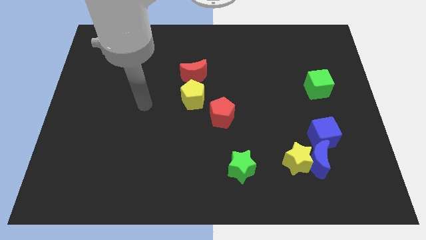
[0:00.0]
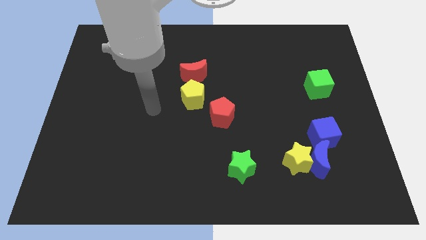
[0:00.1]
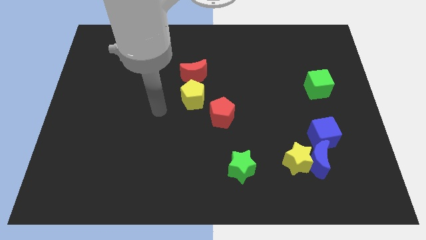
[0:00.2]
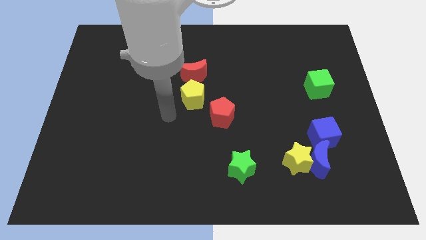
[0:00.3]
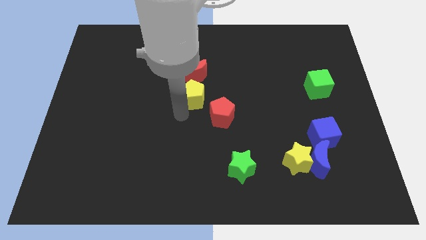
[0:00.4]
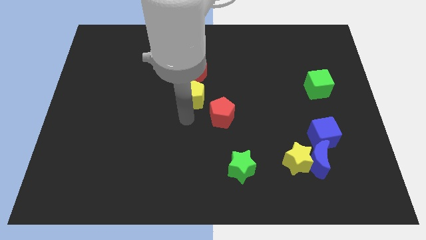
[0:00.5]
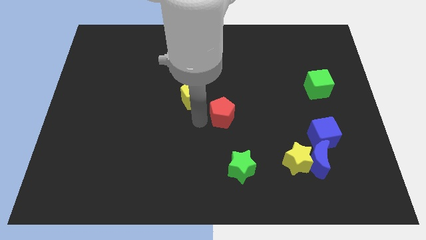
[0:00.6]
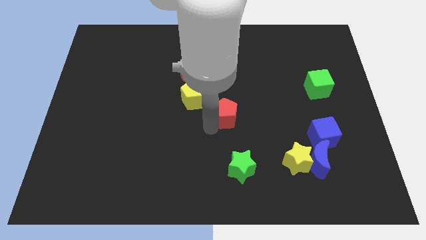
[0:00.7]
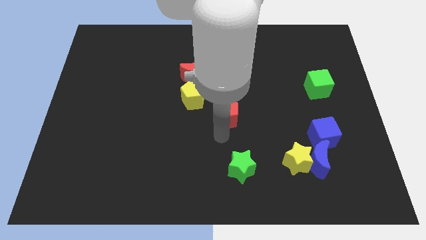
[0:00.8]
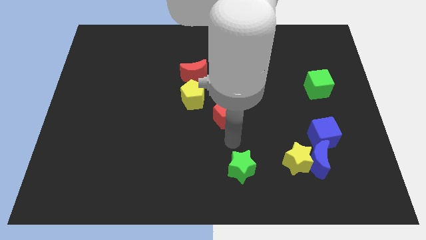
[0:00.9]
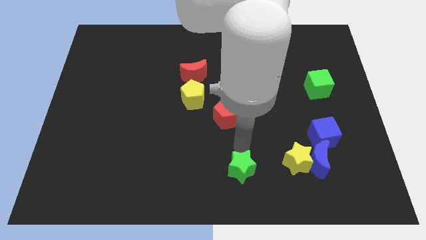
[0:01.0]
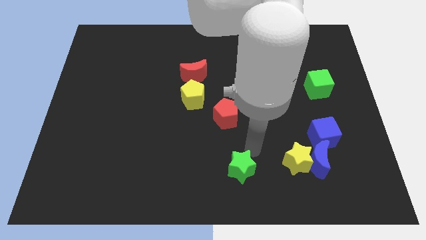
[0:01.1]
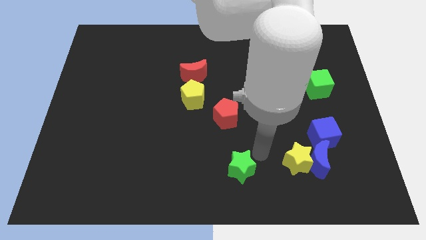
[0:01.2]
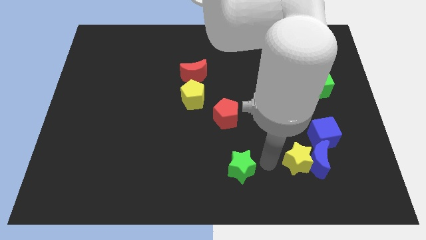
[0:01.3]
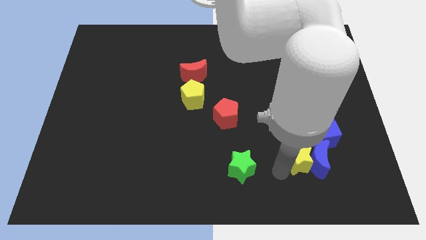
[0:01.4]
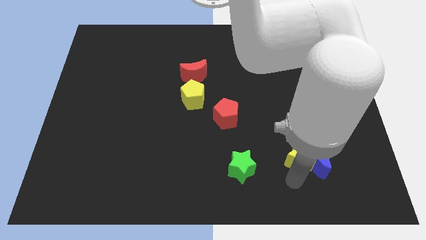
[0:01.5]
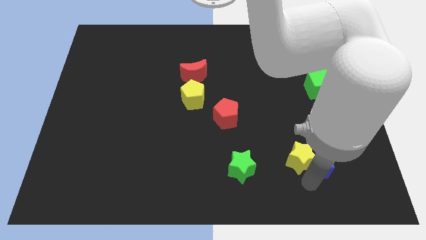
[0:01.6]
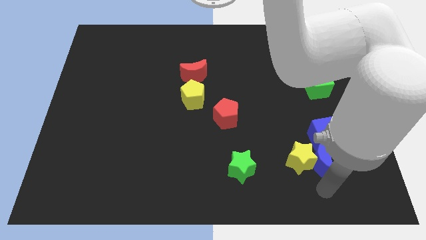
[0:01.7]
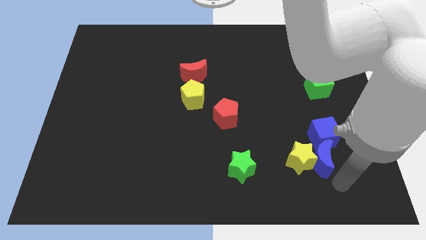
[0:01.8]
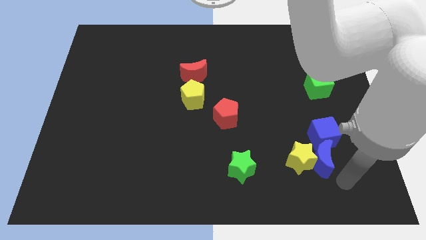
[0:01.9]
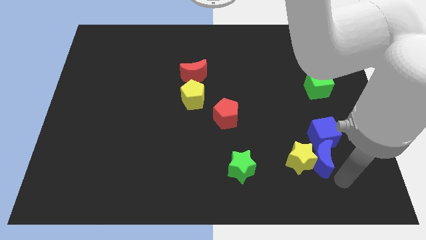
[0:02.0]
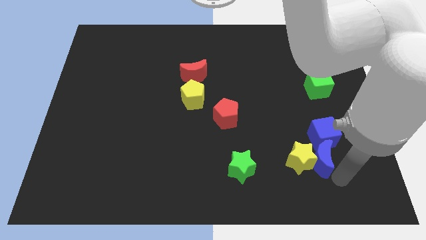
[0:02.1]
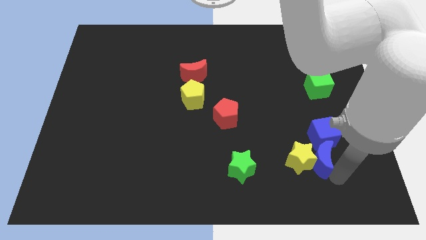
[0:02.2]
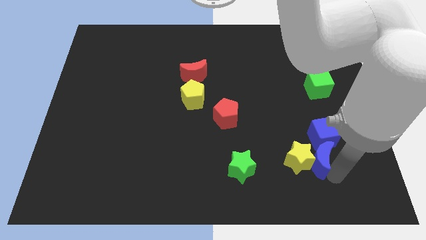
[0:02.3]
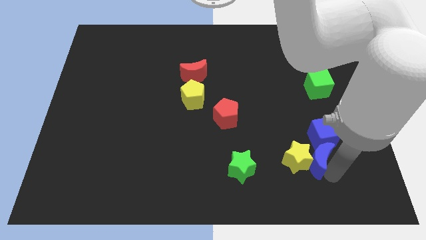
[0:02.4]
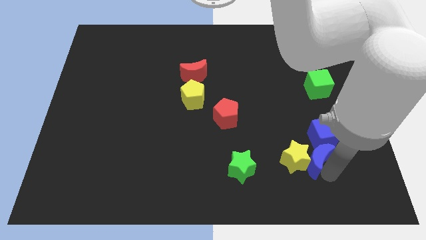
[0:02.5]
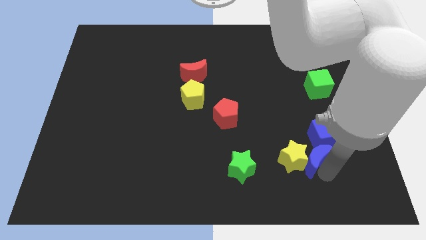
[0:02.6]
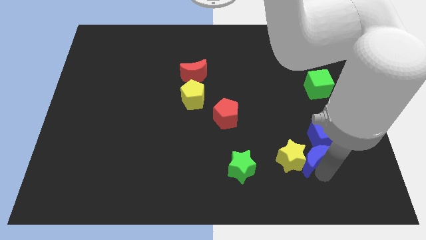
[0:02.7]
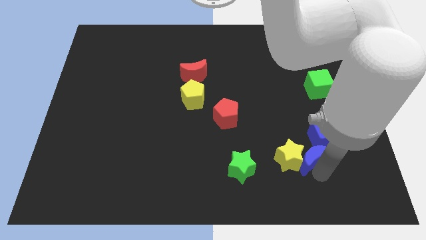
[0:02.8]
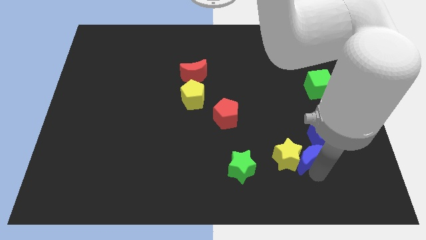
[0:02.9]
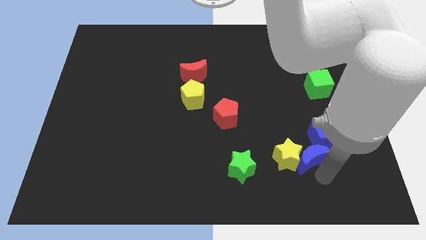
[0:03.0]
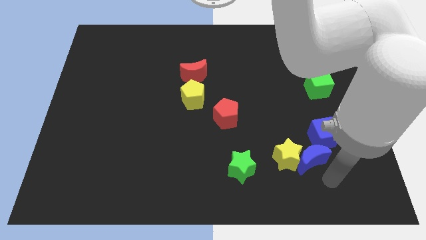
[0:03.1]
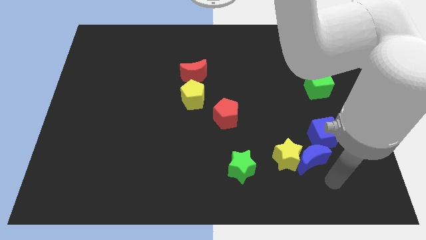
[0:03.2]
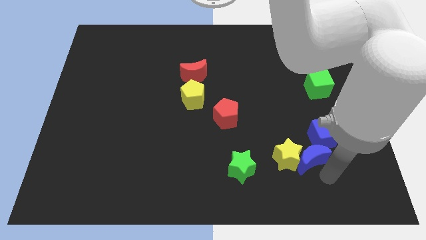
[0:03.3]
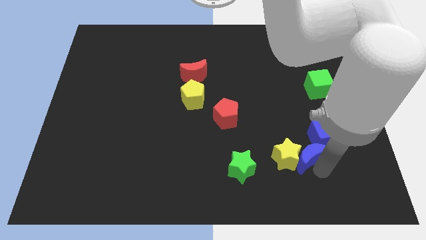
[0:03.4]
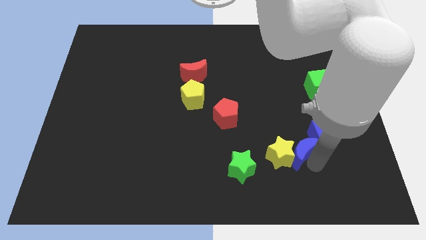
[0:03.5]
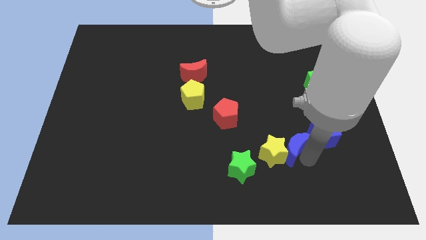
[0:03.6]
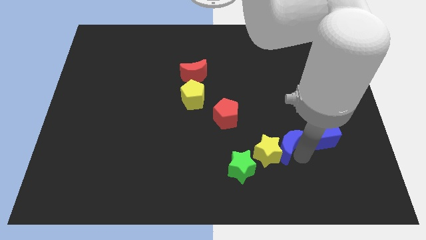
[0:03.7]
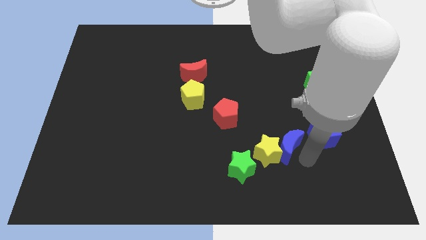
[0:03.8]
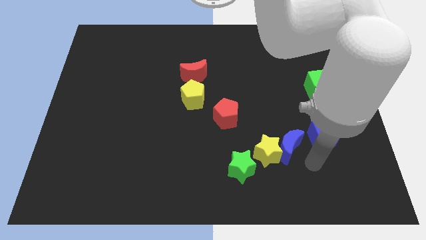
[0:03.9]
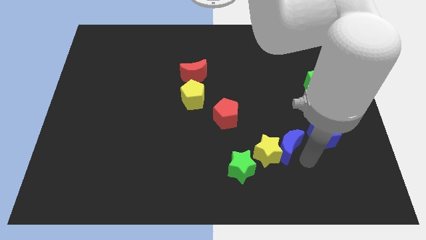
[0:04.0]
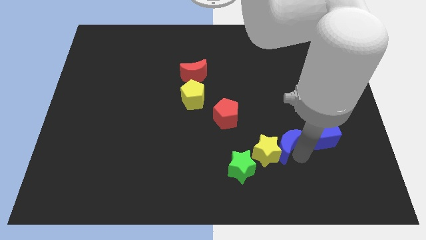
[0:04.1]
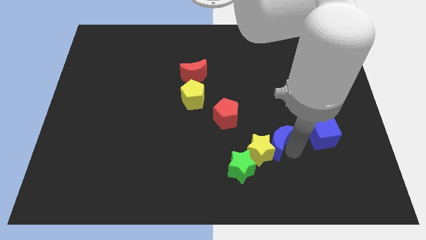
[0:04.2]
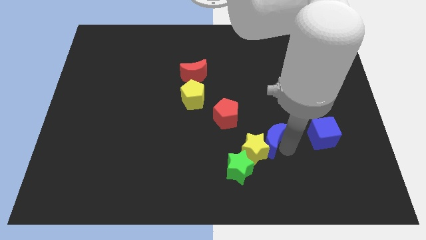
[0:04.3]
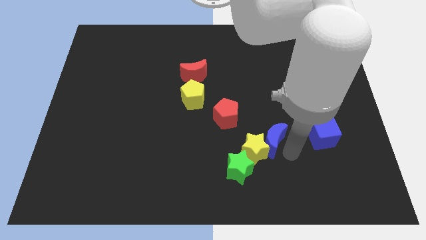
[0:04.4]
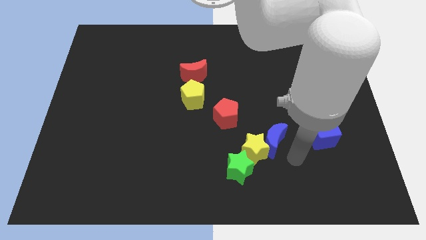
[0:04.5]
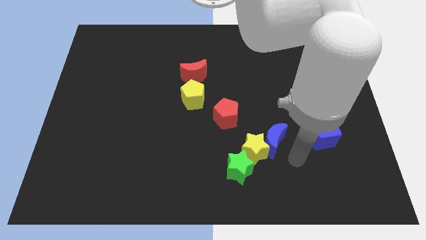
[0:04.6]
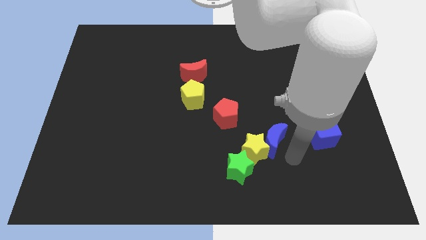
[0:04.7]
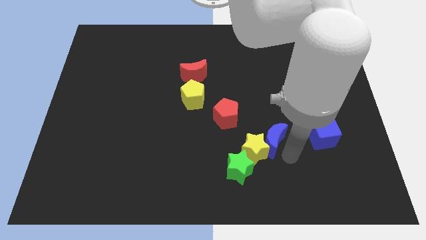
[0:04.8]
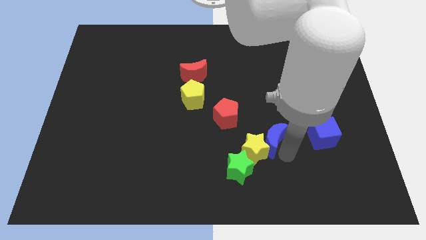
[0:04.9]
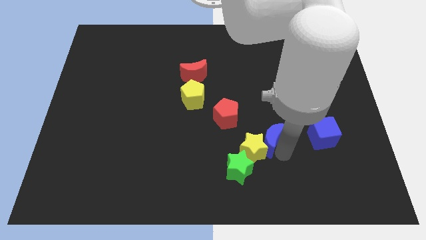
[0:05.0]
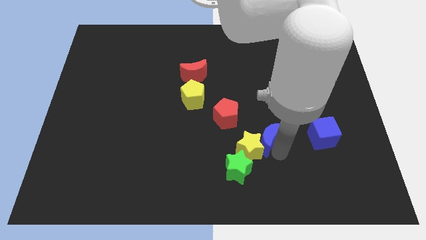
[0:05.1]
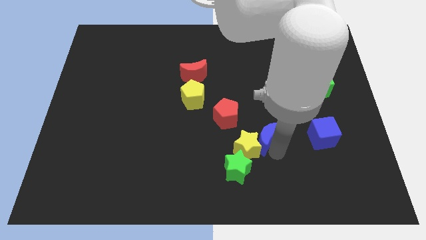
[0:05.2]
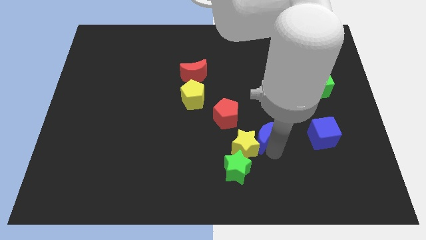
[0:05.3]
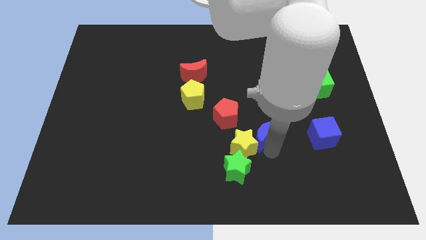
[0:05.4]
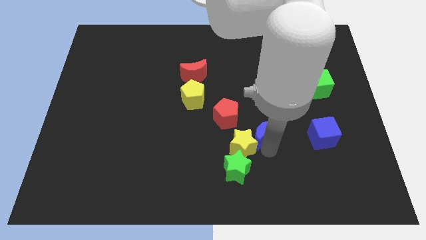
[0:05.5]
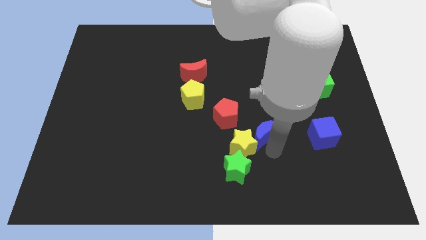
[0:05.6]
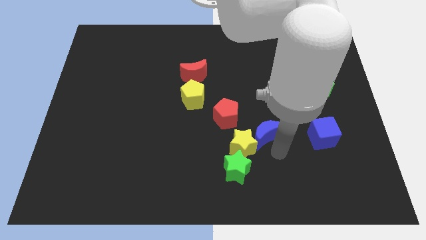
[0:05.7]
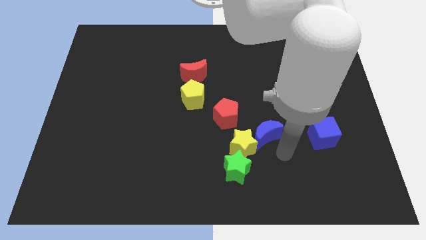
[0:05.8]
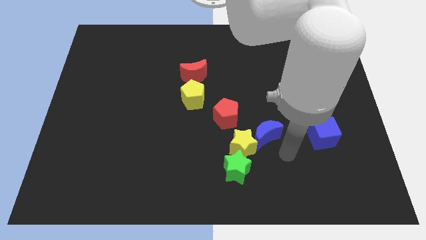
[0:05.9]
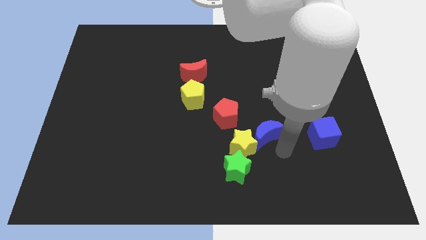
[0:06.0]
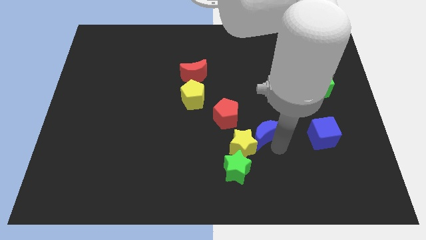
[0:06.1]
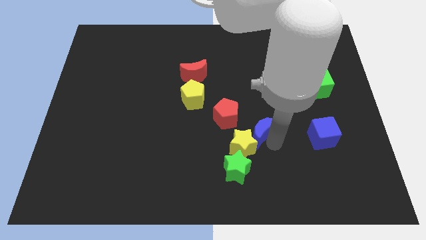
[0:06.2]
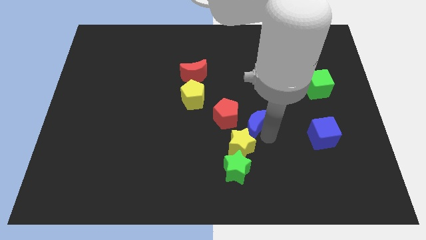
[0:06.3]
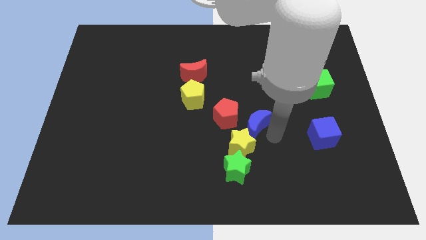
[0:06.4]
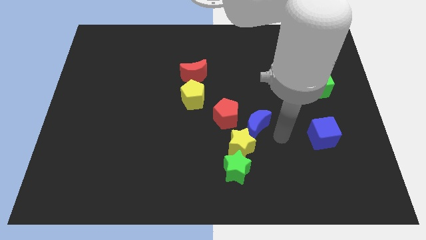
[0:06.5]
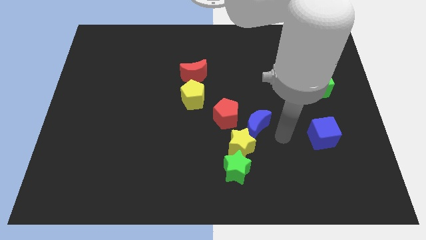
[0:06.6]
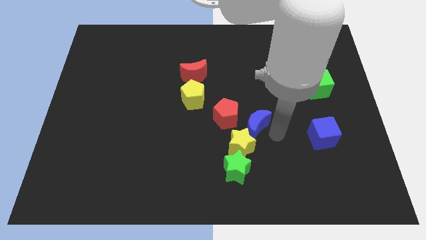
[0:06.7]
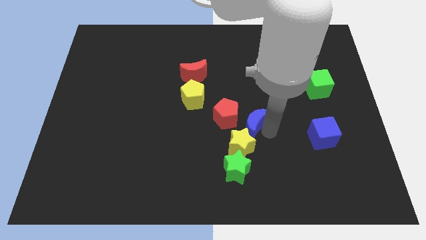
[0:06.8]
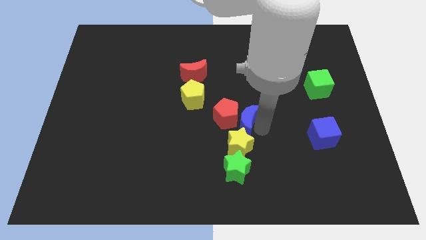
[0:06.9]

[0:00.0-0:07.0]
slide the blue moon towards the red pentagon
